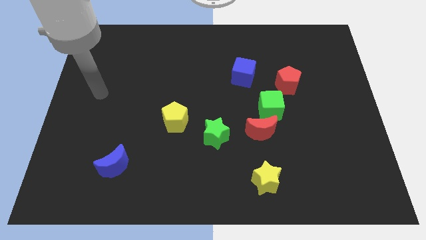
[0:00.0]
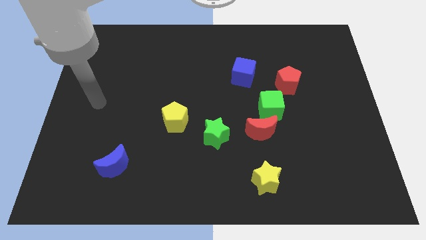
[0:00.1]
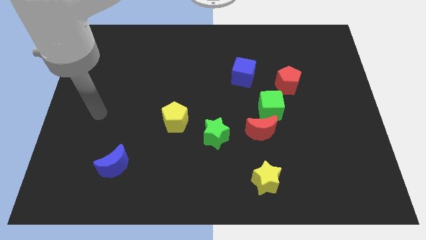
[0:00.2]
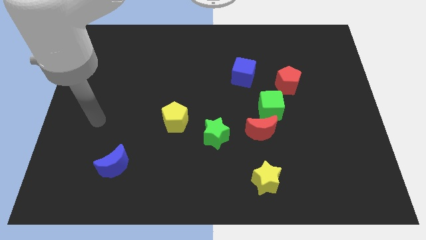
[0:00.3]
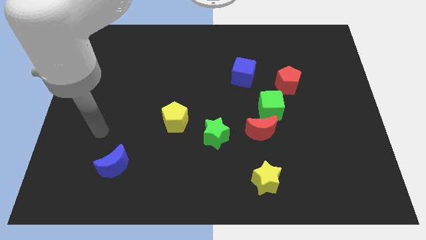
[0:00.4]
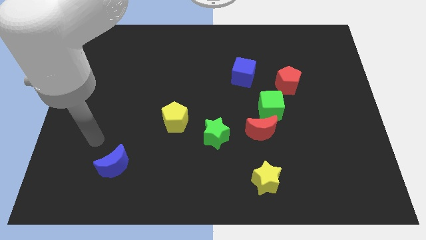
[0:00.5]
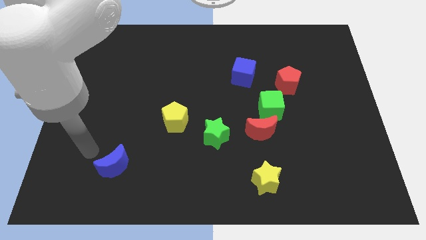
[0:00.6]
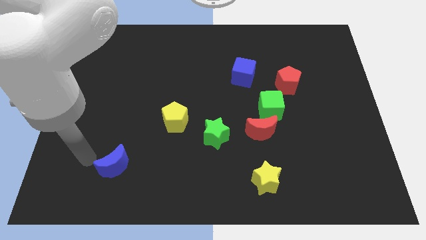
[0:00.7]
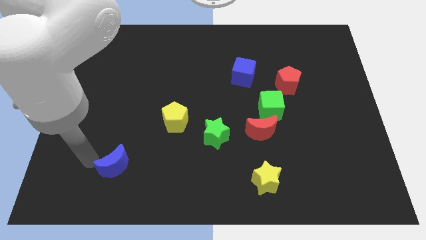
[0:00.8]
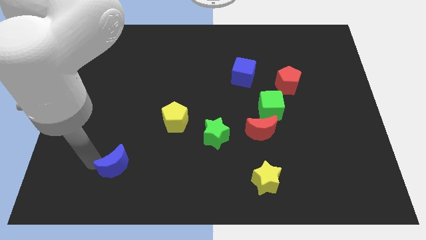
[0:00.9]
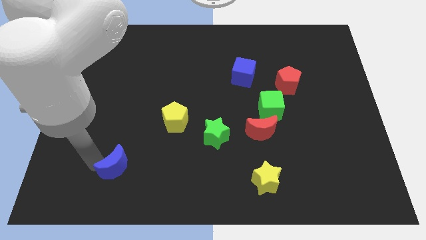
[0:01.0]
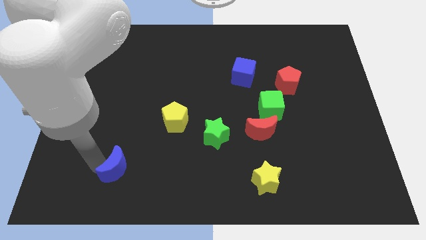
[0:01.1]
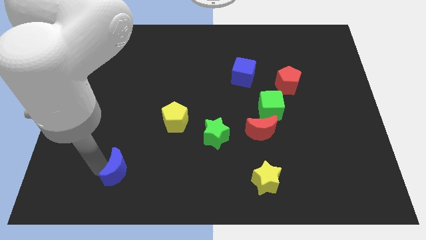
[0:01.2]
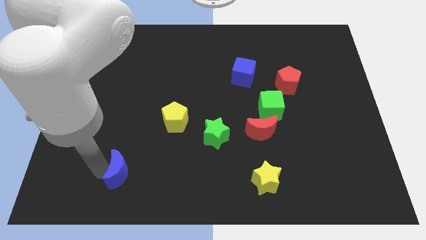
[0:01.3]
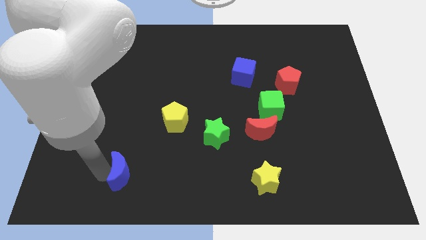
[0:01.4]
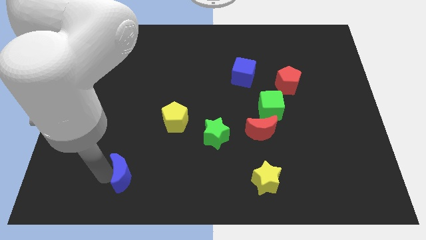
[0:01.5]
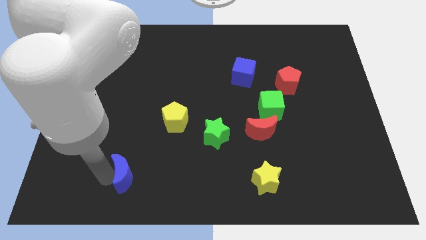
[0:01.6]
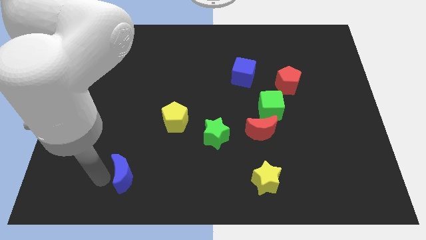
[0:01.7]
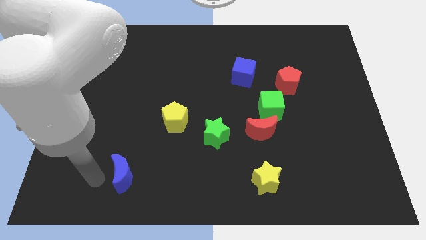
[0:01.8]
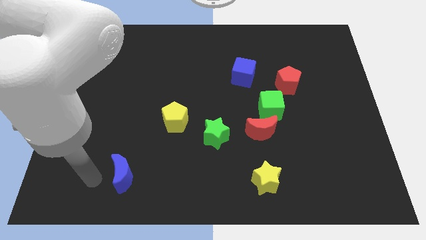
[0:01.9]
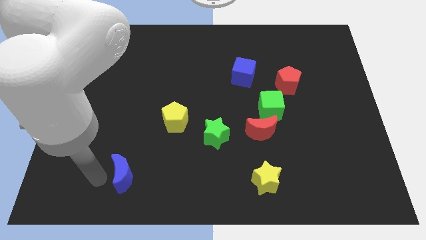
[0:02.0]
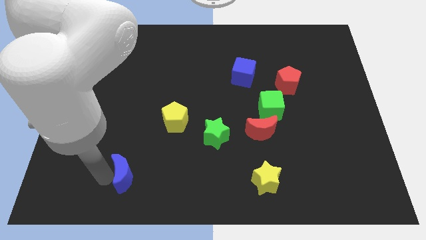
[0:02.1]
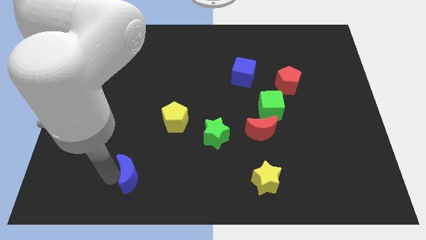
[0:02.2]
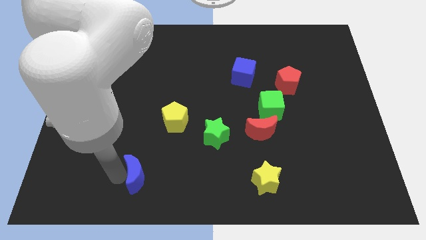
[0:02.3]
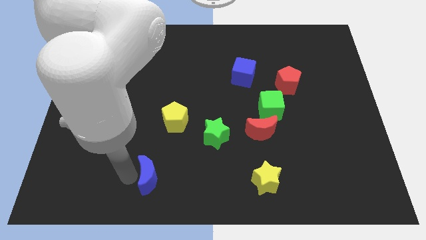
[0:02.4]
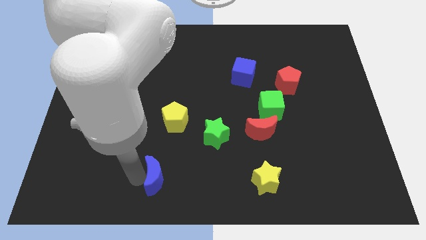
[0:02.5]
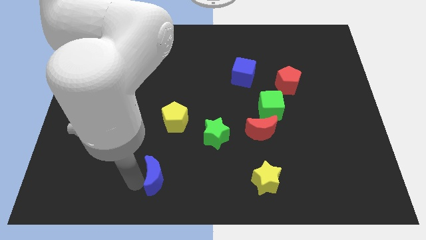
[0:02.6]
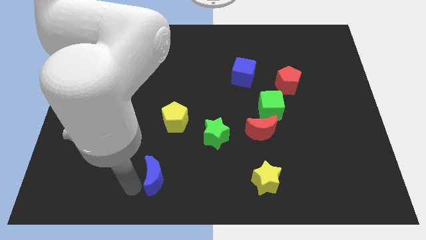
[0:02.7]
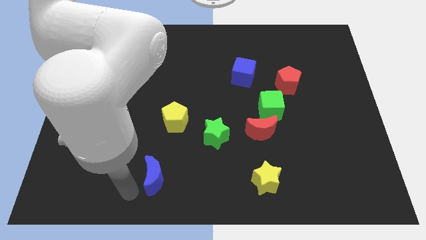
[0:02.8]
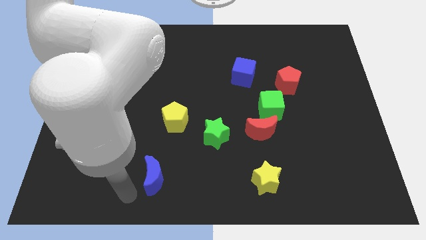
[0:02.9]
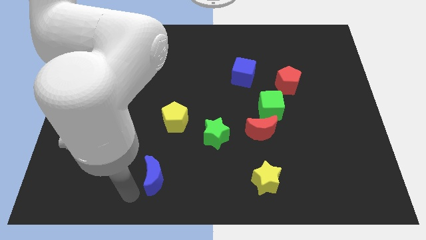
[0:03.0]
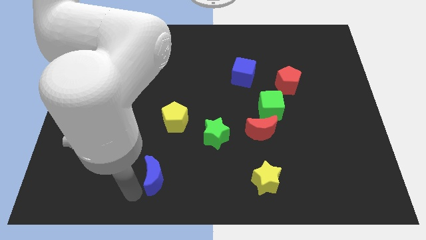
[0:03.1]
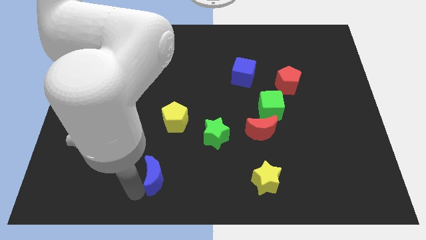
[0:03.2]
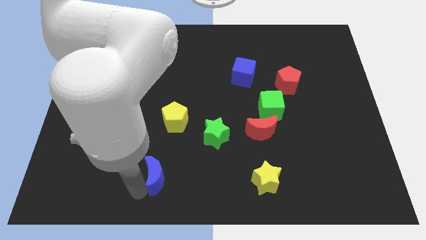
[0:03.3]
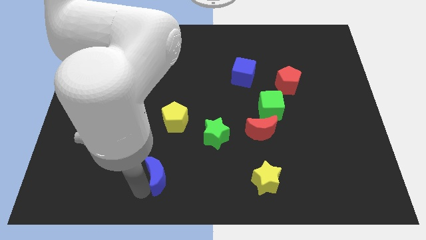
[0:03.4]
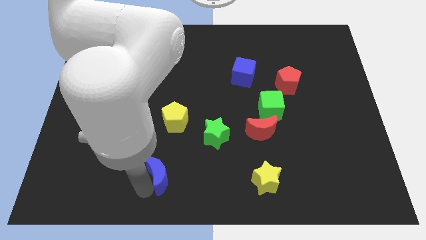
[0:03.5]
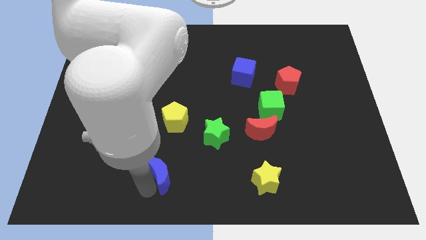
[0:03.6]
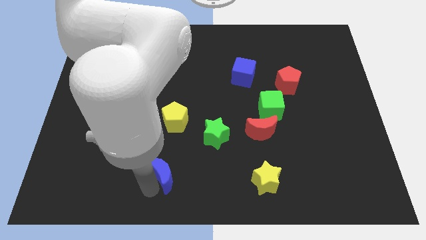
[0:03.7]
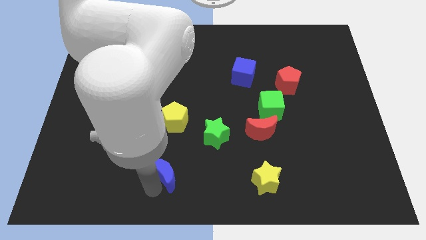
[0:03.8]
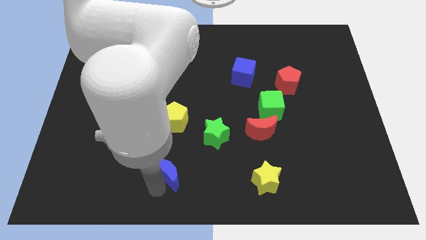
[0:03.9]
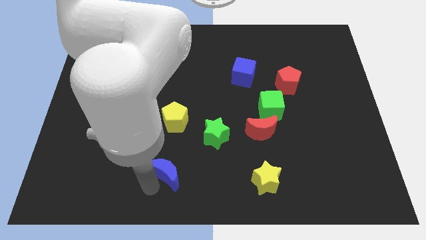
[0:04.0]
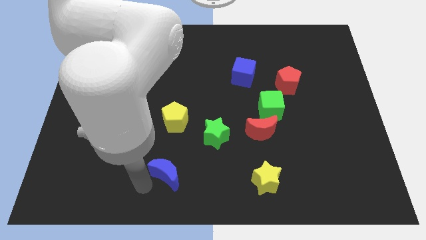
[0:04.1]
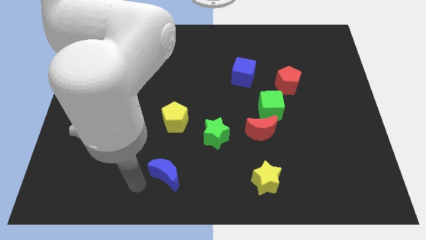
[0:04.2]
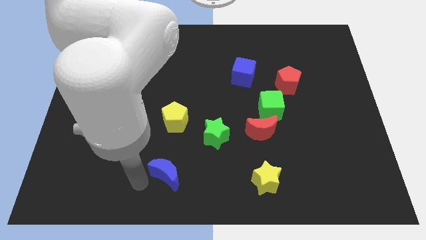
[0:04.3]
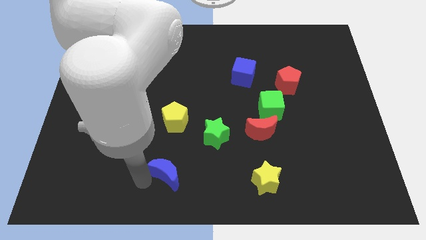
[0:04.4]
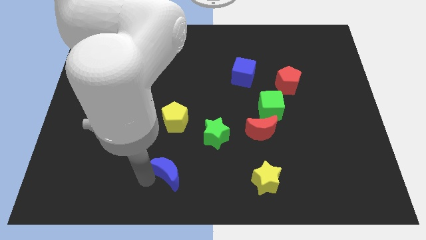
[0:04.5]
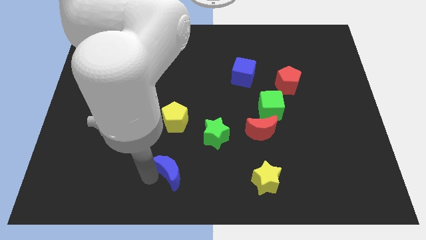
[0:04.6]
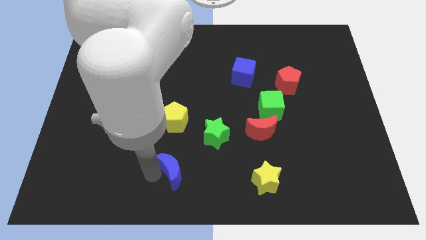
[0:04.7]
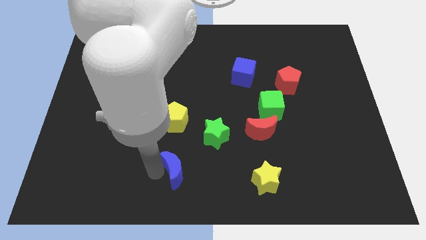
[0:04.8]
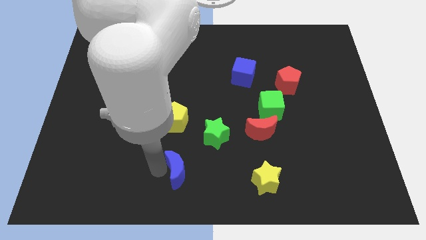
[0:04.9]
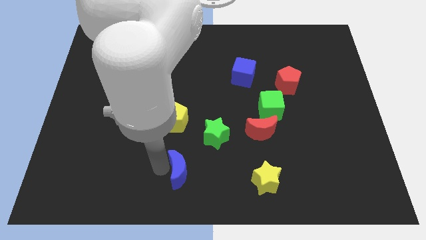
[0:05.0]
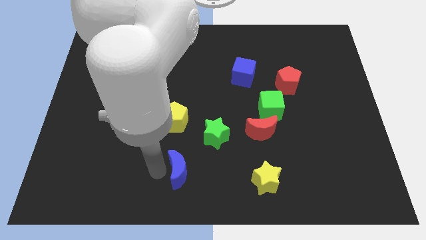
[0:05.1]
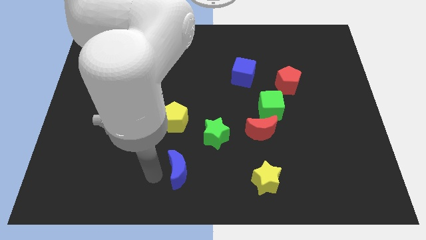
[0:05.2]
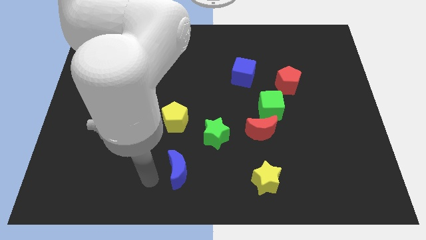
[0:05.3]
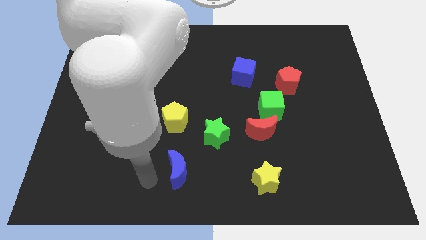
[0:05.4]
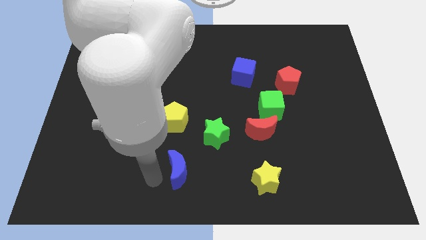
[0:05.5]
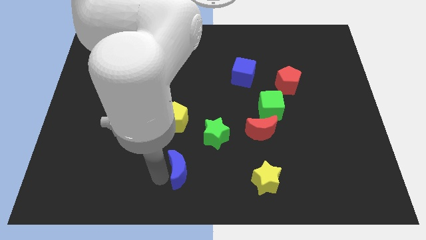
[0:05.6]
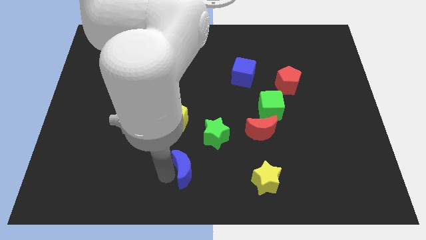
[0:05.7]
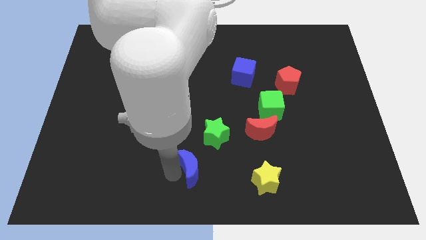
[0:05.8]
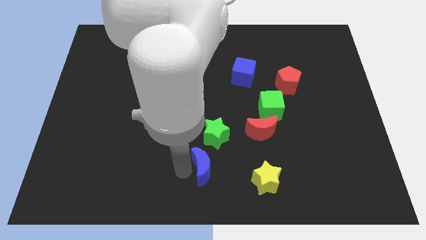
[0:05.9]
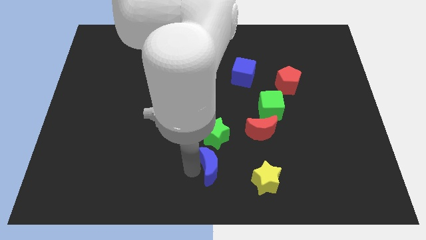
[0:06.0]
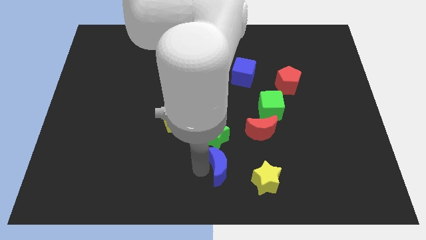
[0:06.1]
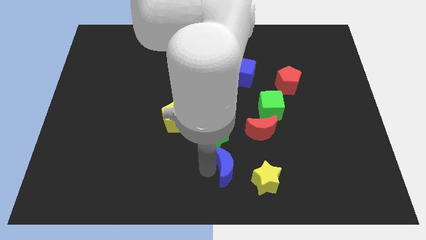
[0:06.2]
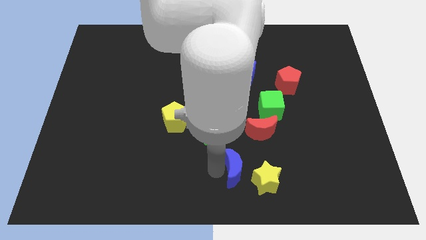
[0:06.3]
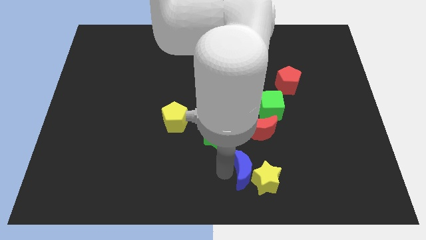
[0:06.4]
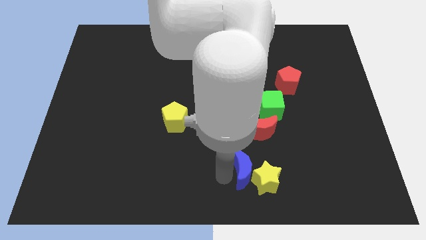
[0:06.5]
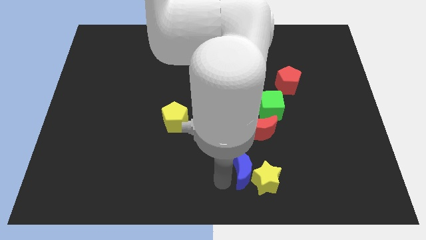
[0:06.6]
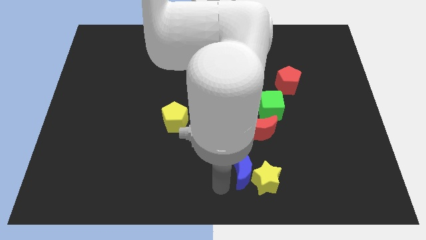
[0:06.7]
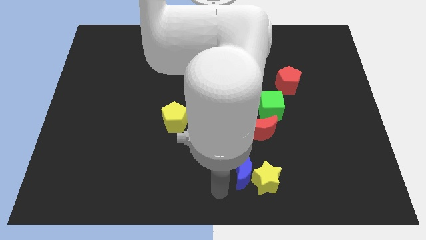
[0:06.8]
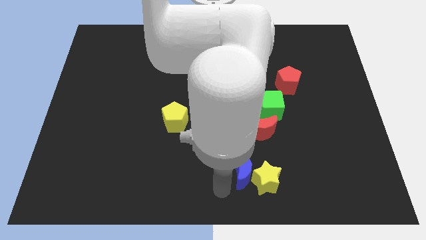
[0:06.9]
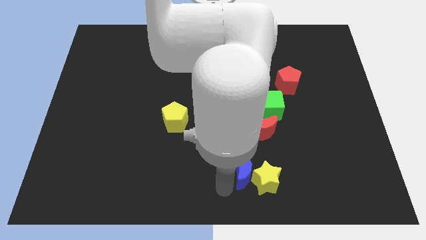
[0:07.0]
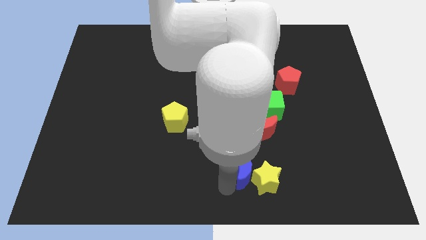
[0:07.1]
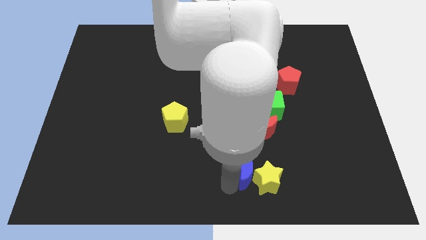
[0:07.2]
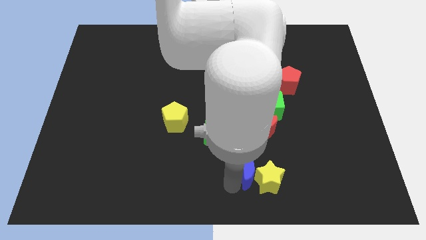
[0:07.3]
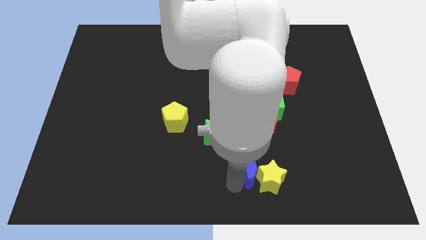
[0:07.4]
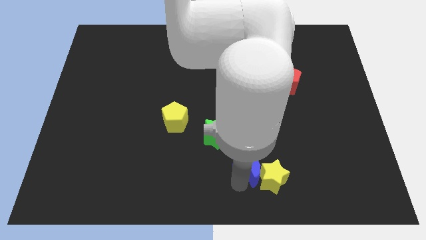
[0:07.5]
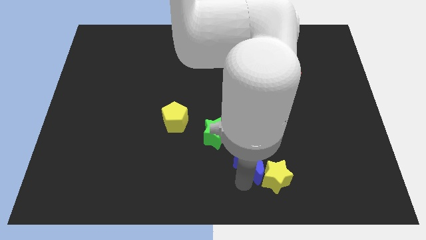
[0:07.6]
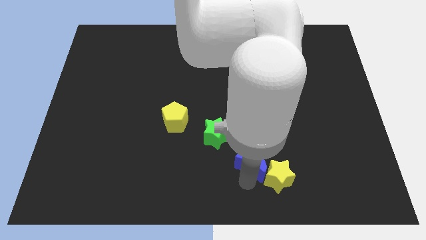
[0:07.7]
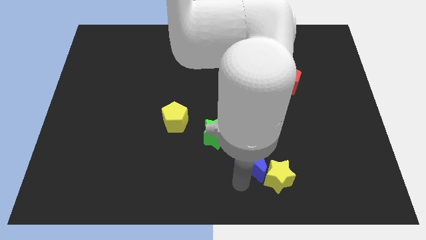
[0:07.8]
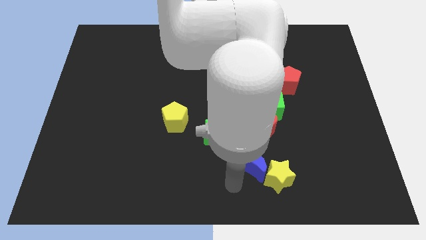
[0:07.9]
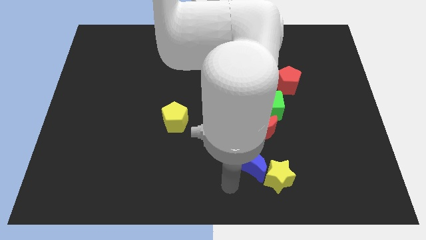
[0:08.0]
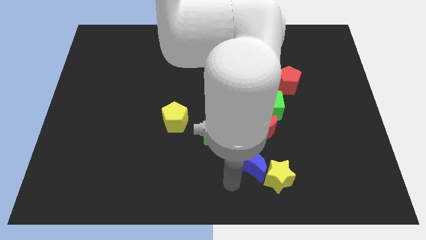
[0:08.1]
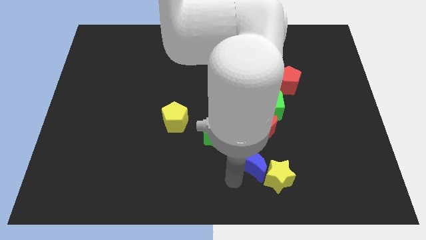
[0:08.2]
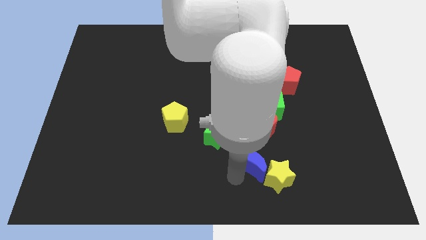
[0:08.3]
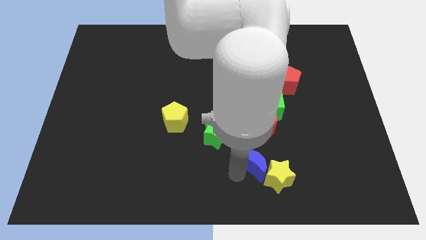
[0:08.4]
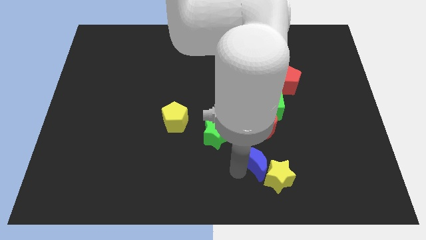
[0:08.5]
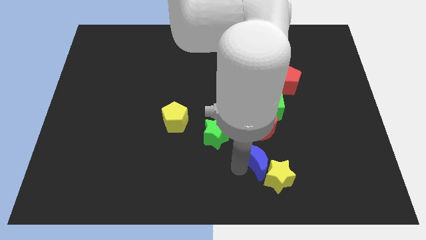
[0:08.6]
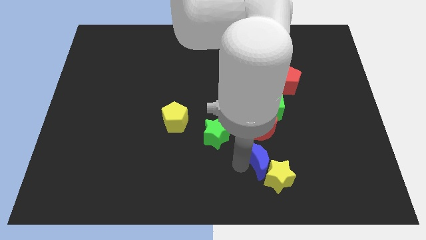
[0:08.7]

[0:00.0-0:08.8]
move the blue moon below the green cube
